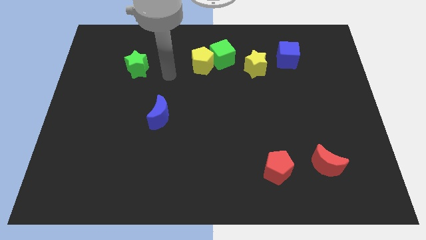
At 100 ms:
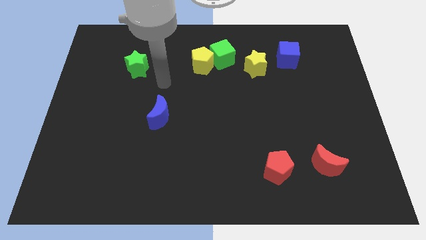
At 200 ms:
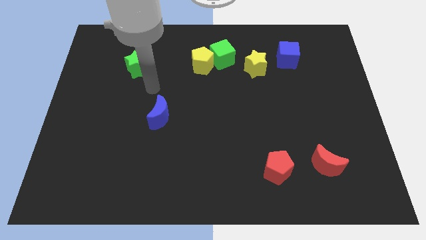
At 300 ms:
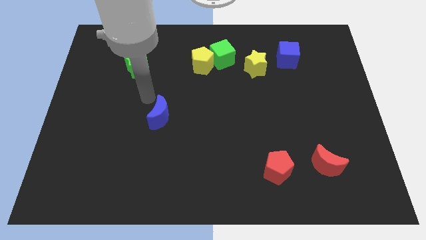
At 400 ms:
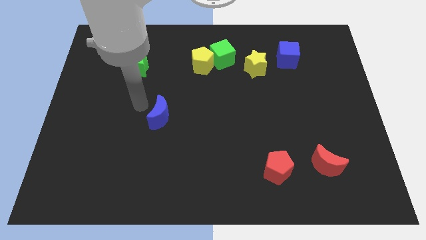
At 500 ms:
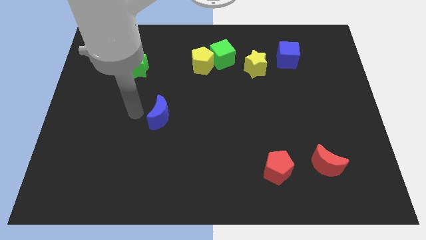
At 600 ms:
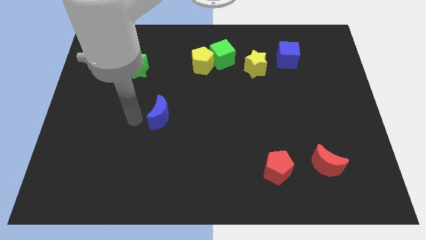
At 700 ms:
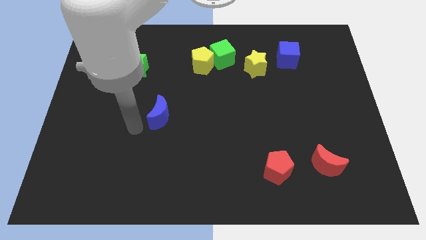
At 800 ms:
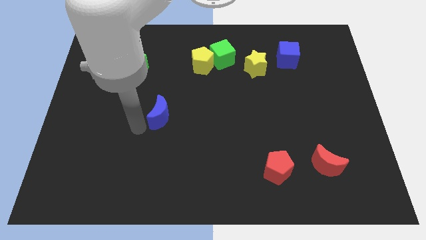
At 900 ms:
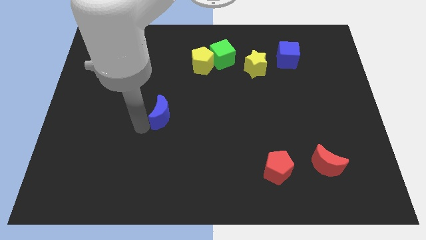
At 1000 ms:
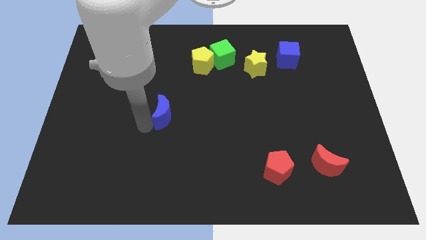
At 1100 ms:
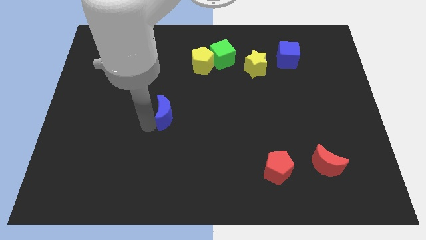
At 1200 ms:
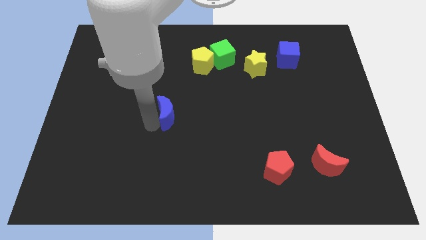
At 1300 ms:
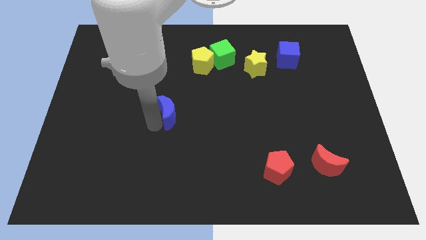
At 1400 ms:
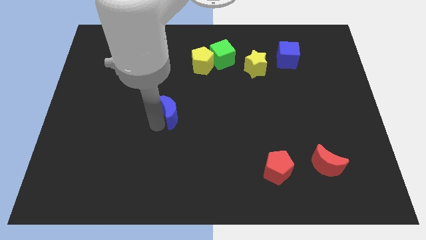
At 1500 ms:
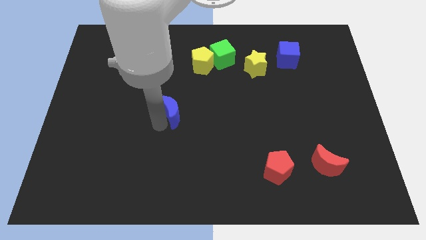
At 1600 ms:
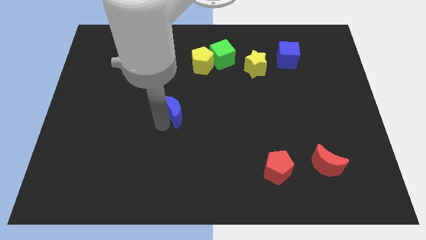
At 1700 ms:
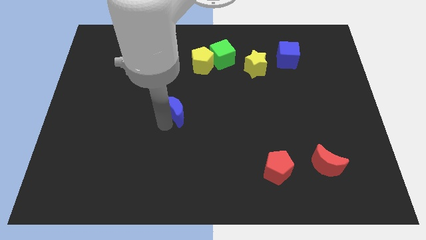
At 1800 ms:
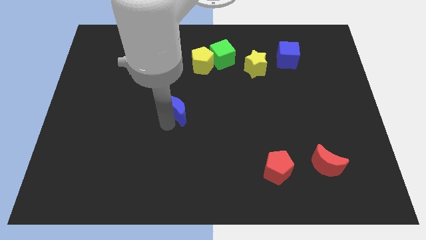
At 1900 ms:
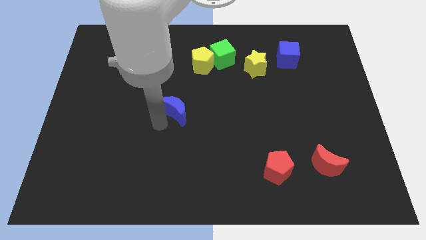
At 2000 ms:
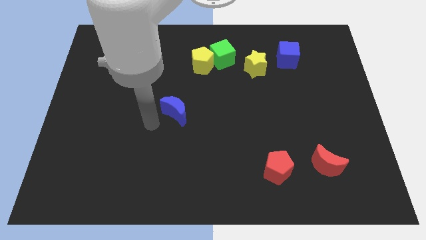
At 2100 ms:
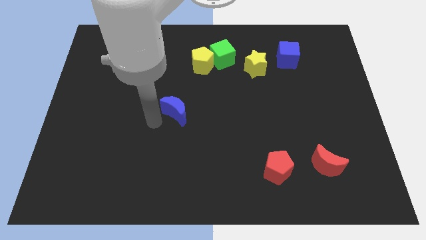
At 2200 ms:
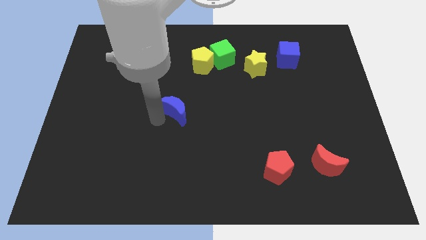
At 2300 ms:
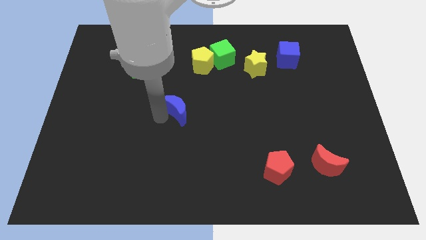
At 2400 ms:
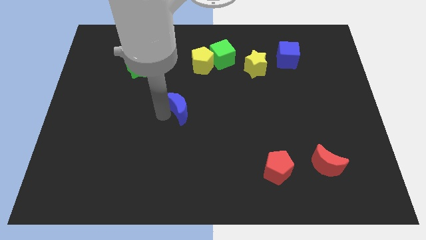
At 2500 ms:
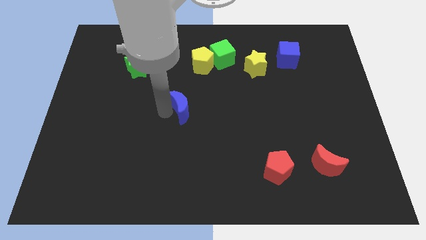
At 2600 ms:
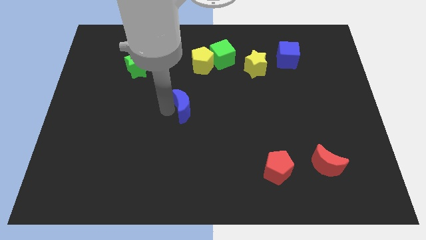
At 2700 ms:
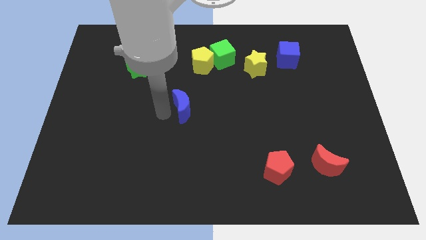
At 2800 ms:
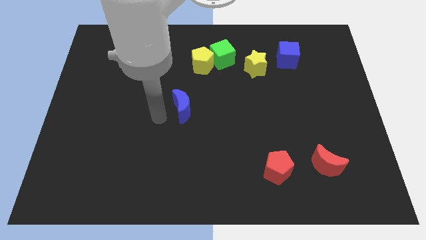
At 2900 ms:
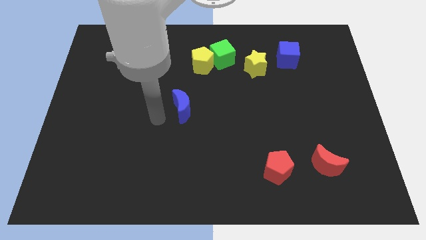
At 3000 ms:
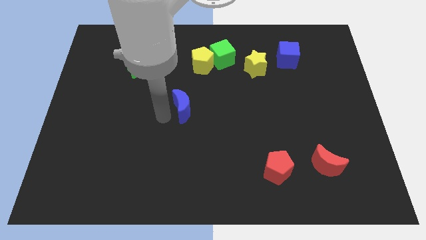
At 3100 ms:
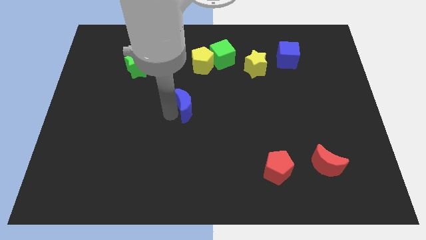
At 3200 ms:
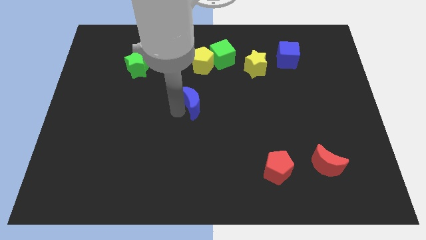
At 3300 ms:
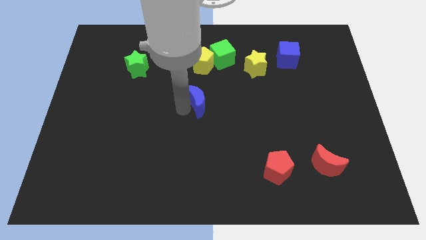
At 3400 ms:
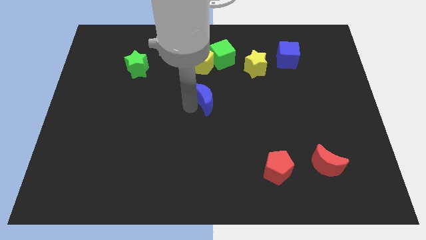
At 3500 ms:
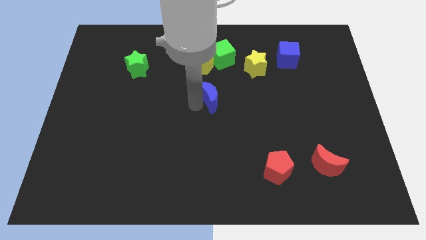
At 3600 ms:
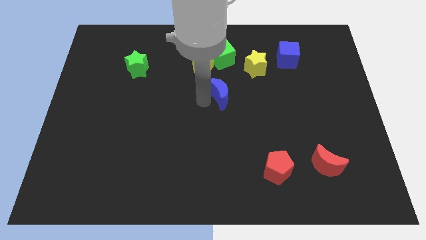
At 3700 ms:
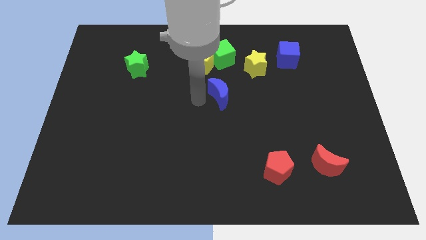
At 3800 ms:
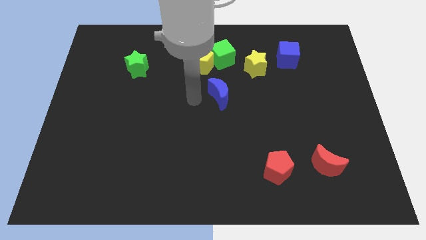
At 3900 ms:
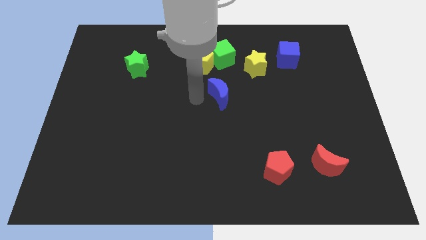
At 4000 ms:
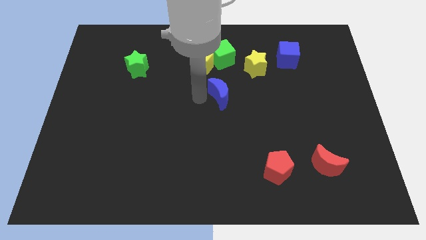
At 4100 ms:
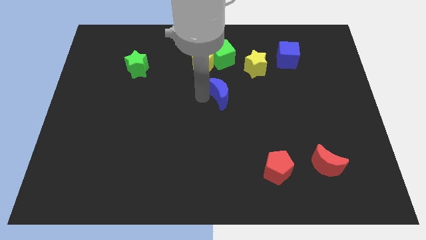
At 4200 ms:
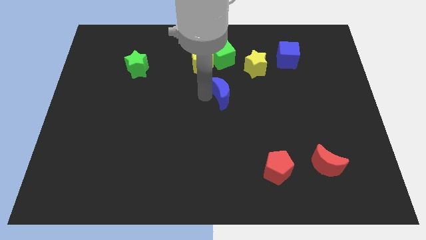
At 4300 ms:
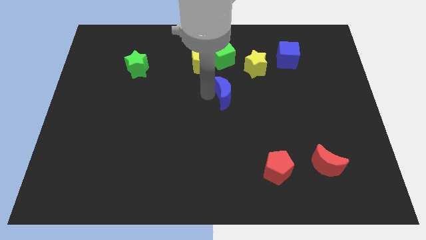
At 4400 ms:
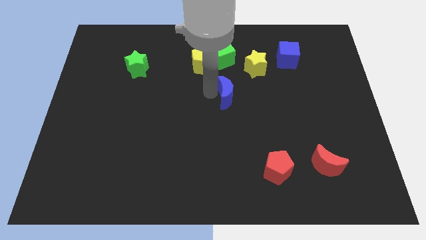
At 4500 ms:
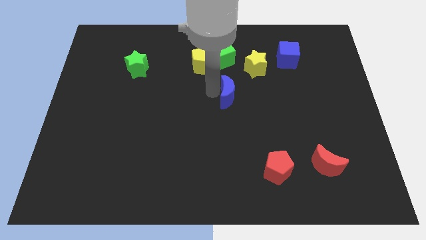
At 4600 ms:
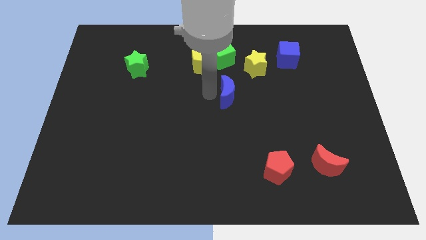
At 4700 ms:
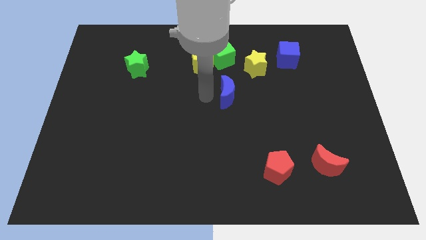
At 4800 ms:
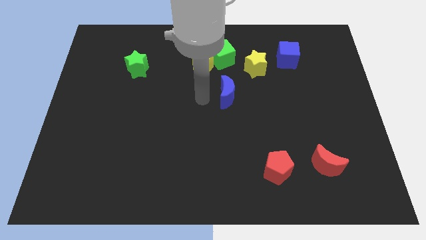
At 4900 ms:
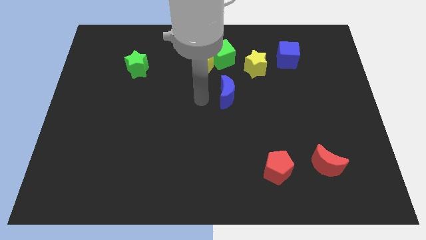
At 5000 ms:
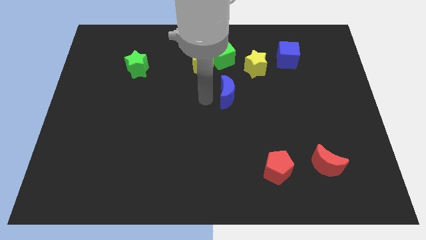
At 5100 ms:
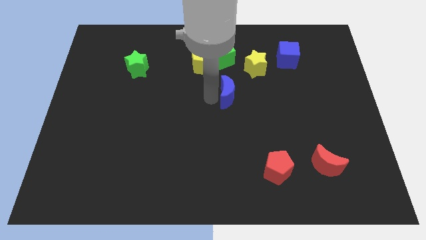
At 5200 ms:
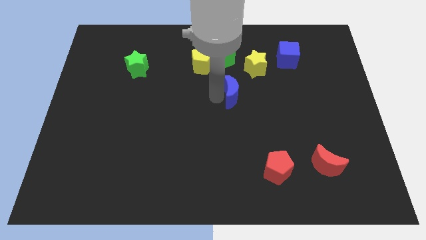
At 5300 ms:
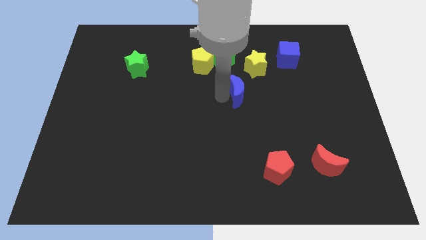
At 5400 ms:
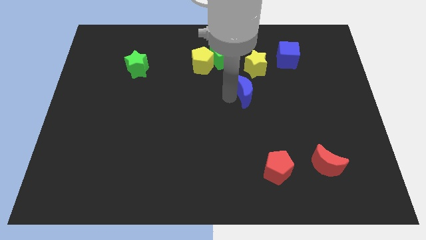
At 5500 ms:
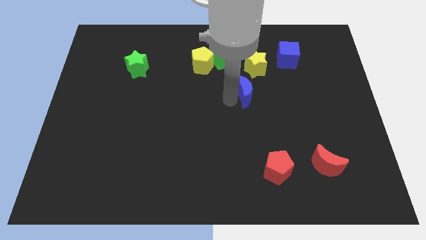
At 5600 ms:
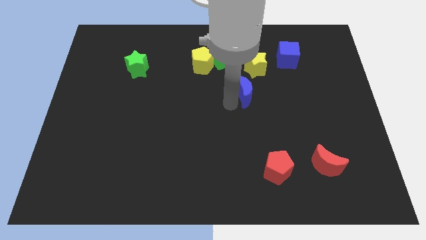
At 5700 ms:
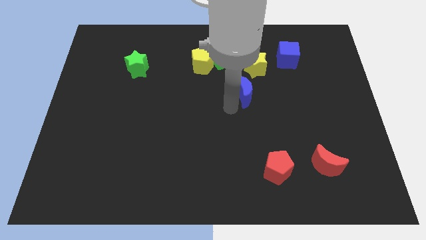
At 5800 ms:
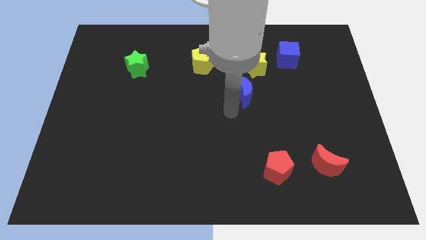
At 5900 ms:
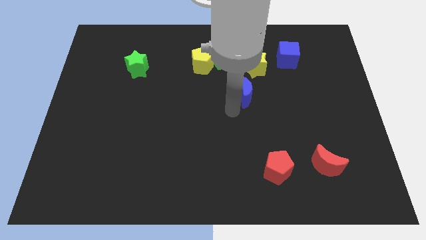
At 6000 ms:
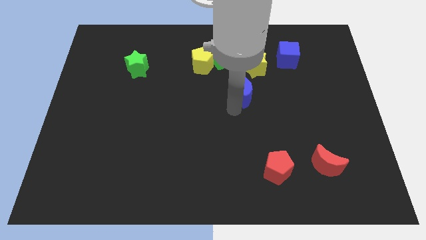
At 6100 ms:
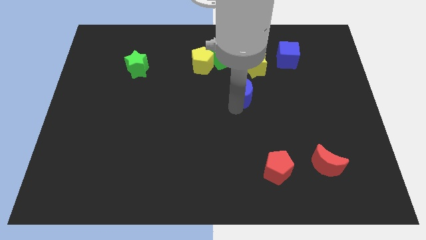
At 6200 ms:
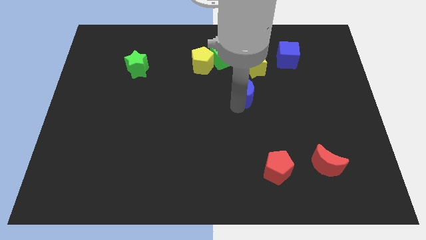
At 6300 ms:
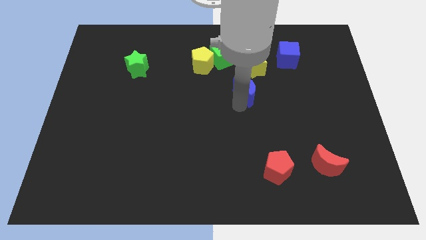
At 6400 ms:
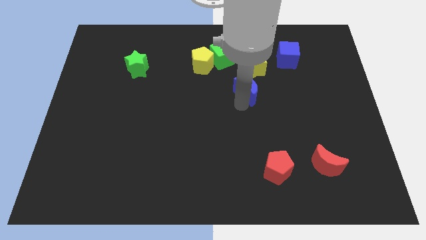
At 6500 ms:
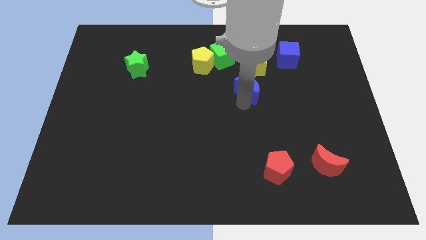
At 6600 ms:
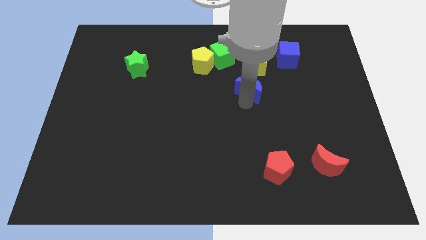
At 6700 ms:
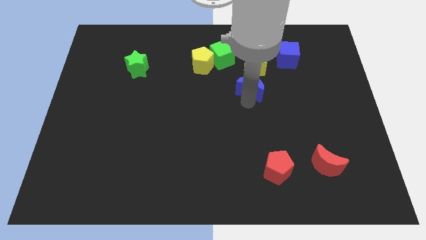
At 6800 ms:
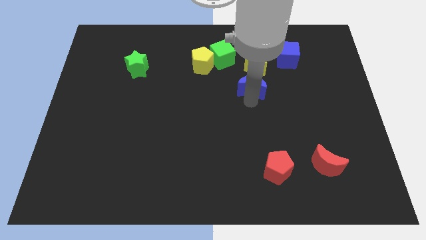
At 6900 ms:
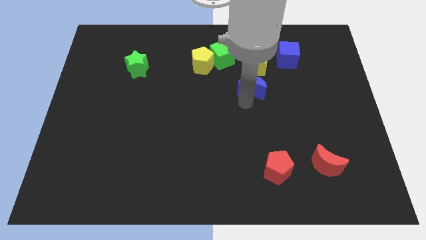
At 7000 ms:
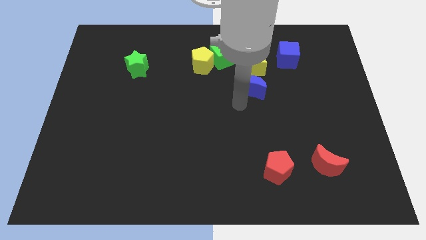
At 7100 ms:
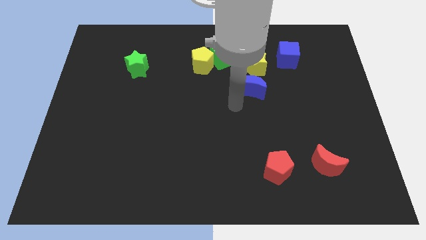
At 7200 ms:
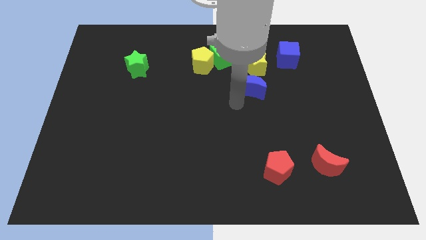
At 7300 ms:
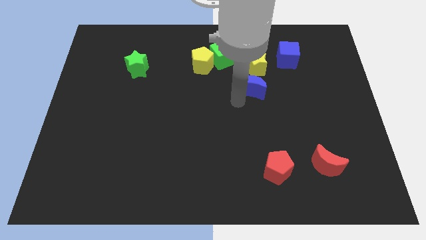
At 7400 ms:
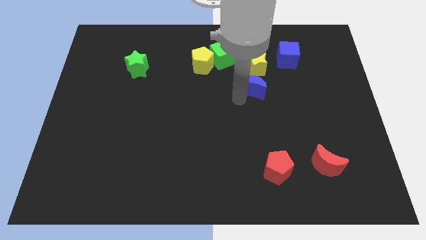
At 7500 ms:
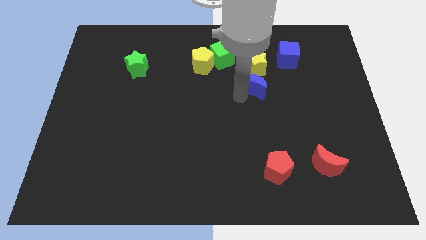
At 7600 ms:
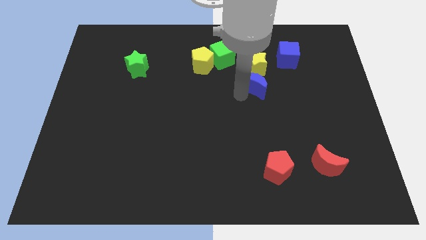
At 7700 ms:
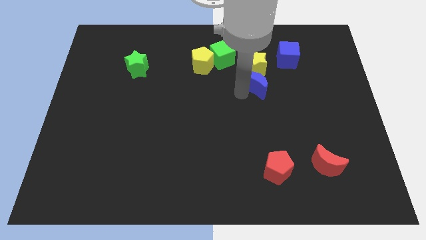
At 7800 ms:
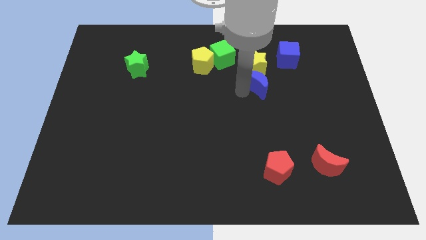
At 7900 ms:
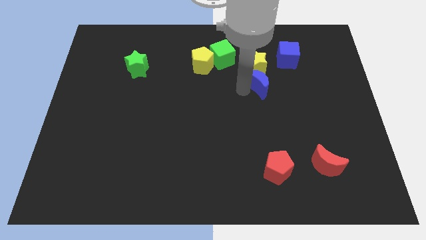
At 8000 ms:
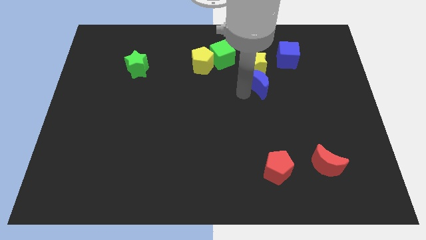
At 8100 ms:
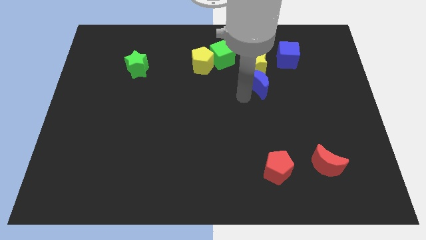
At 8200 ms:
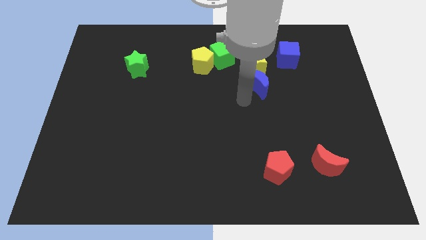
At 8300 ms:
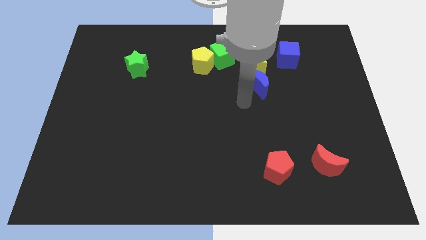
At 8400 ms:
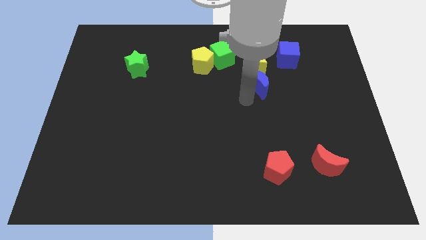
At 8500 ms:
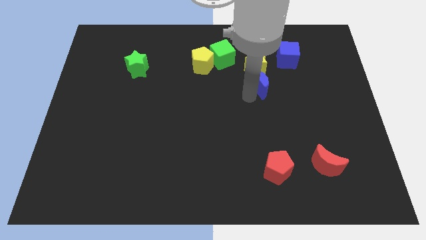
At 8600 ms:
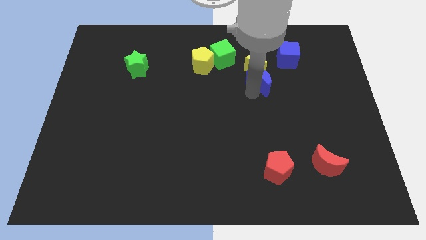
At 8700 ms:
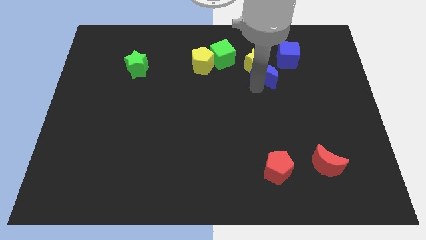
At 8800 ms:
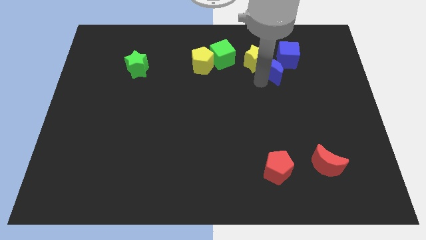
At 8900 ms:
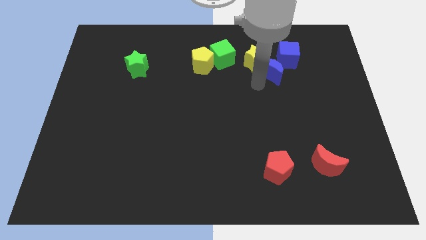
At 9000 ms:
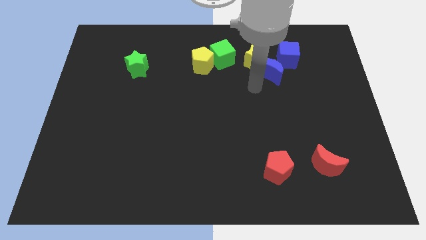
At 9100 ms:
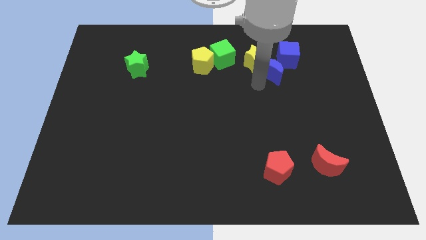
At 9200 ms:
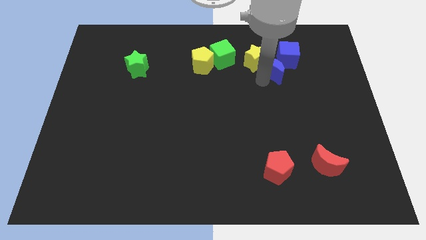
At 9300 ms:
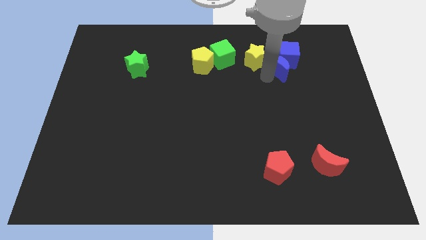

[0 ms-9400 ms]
push the blue moon close to the blue cube
